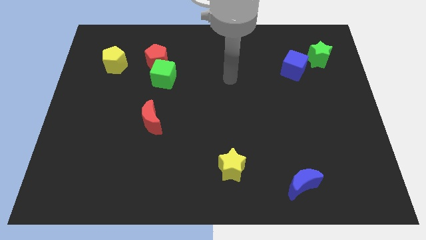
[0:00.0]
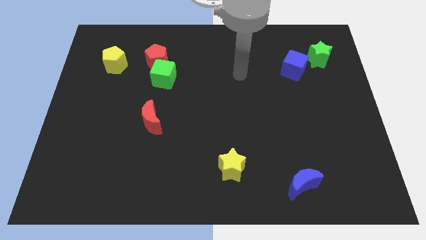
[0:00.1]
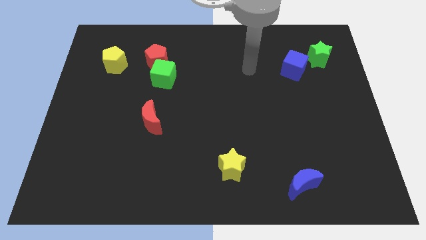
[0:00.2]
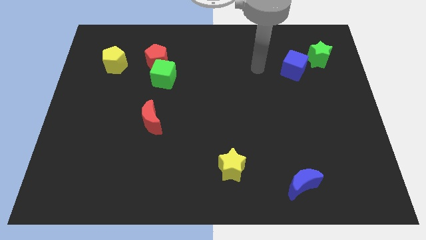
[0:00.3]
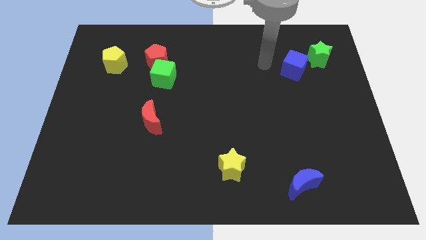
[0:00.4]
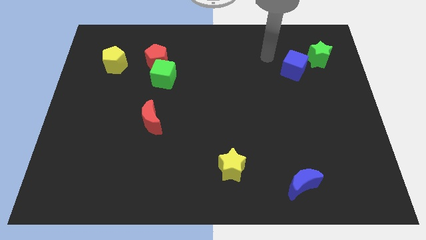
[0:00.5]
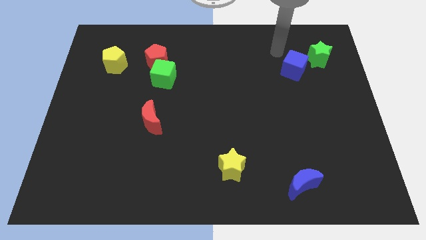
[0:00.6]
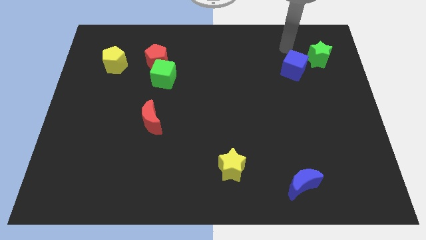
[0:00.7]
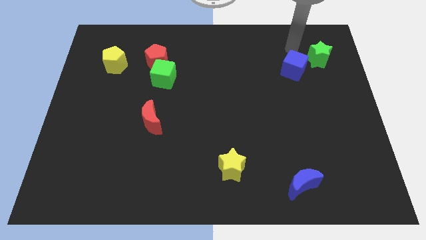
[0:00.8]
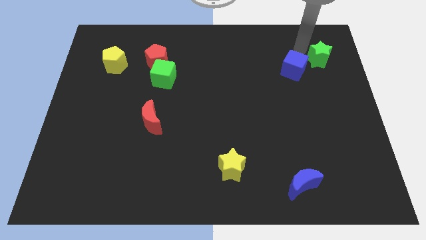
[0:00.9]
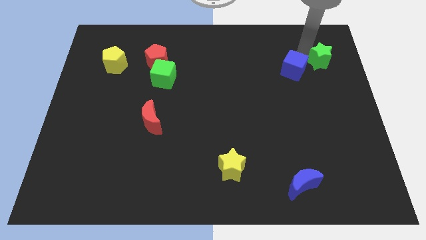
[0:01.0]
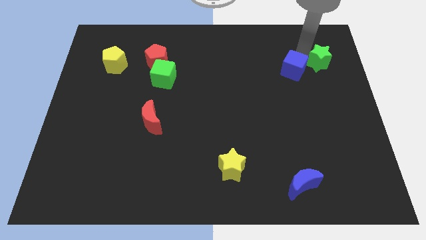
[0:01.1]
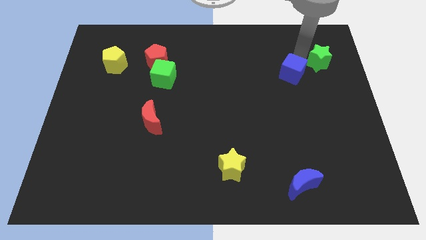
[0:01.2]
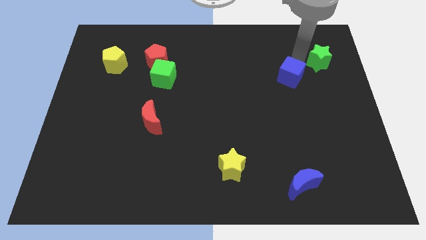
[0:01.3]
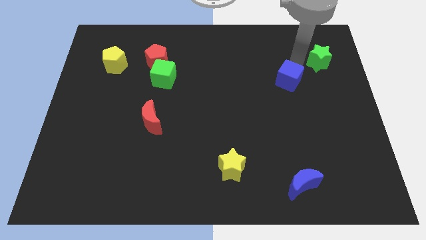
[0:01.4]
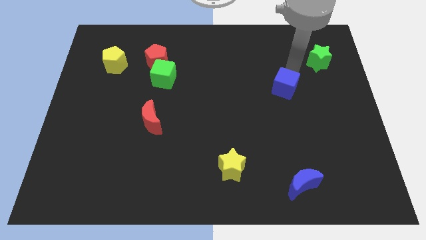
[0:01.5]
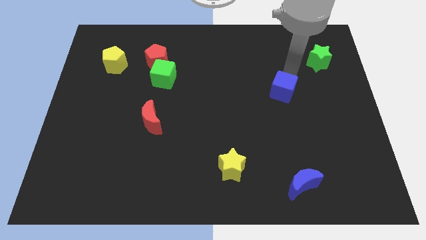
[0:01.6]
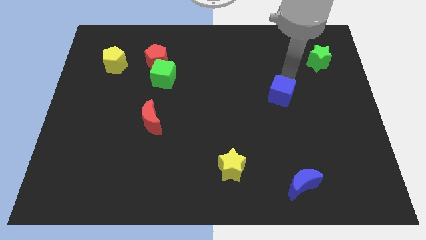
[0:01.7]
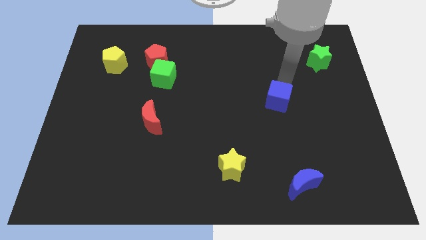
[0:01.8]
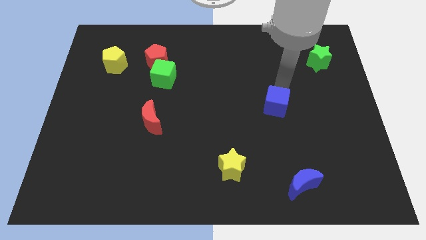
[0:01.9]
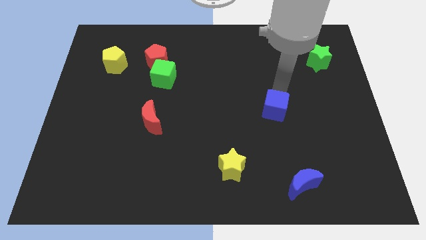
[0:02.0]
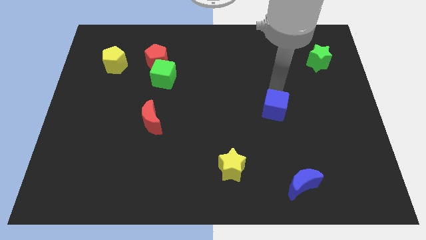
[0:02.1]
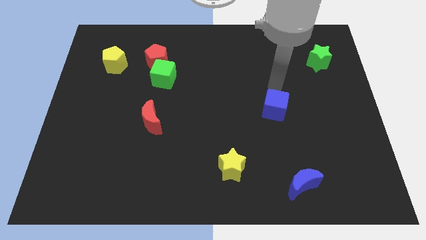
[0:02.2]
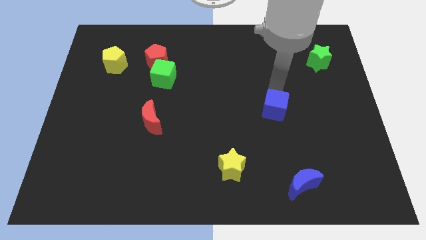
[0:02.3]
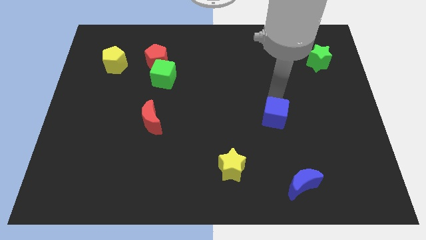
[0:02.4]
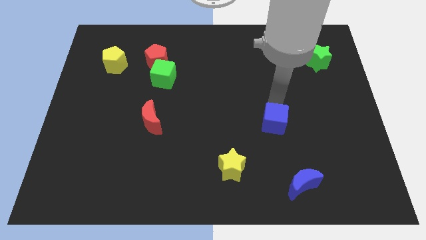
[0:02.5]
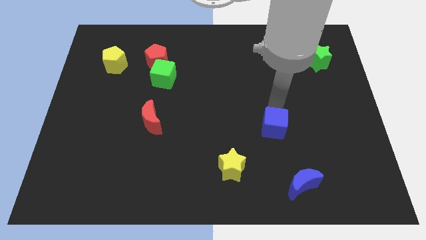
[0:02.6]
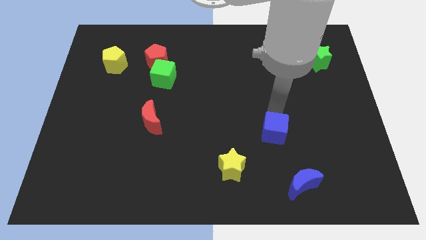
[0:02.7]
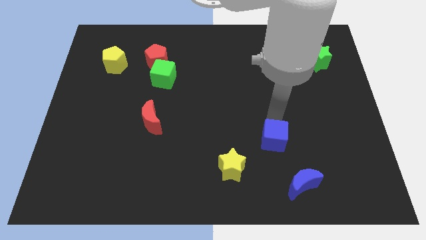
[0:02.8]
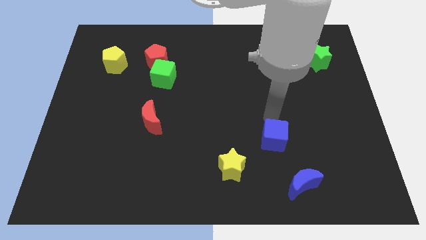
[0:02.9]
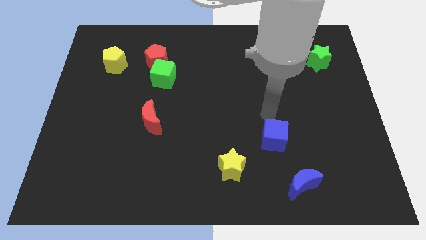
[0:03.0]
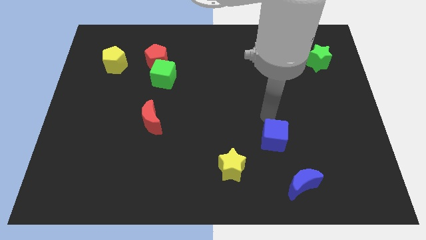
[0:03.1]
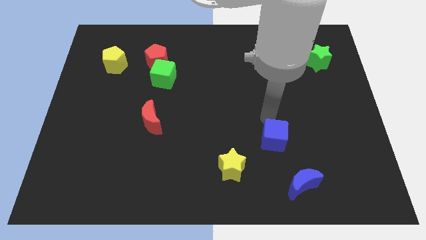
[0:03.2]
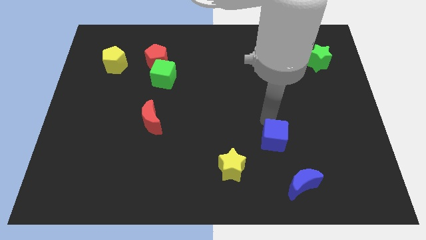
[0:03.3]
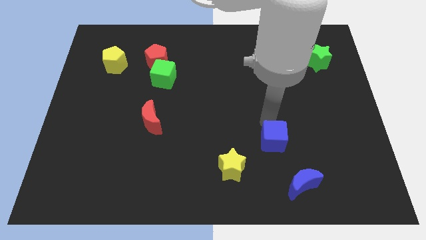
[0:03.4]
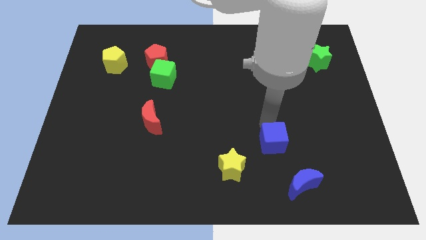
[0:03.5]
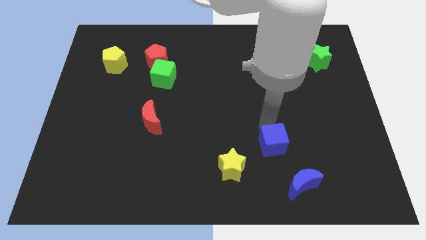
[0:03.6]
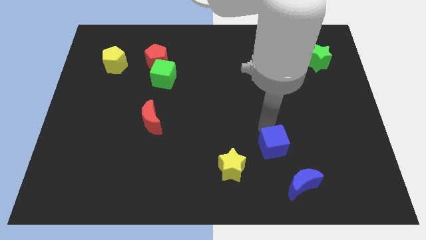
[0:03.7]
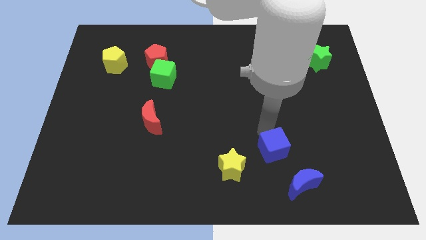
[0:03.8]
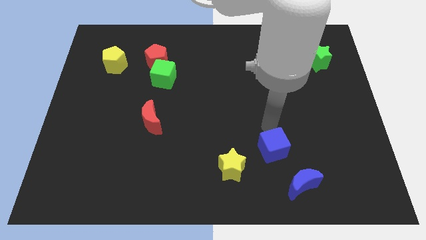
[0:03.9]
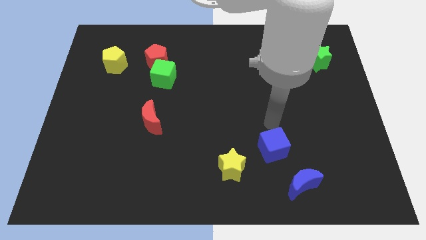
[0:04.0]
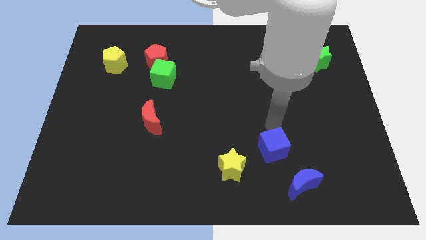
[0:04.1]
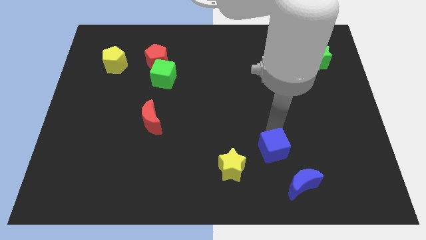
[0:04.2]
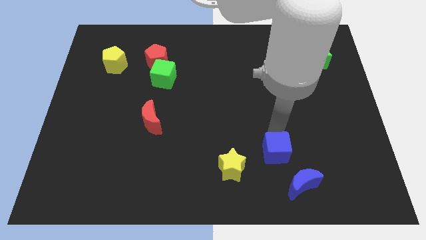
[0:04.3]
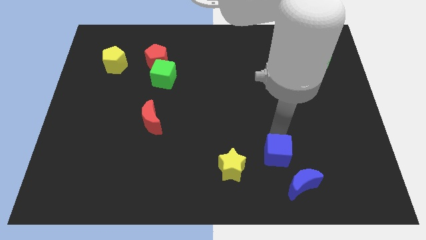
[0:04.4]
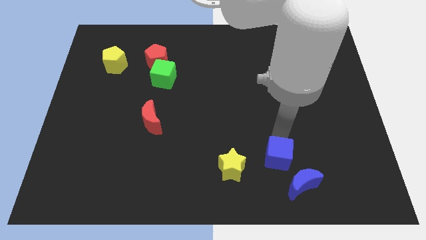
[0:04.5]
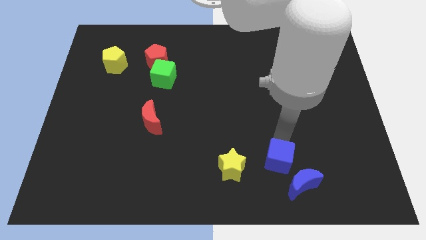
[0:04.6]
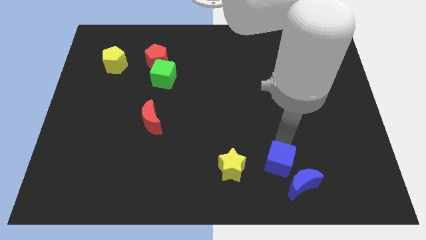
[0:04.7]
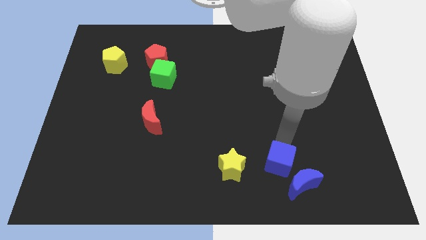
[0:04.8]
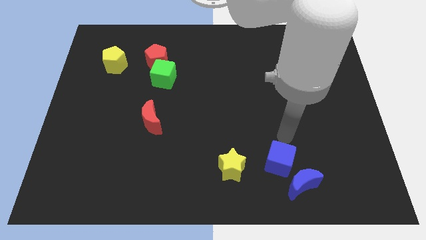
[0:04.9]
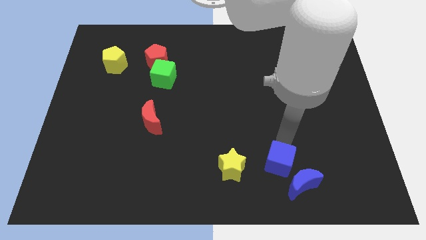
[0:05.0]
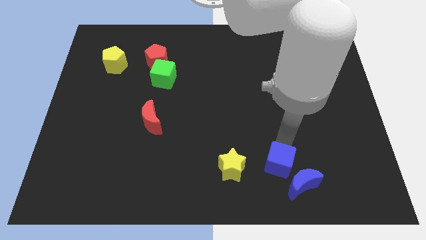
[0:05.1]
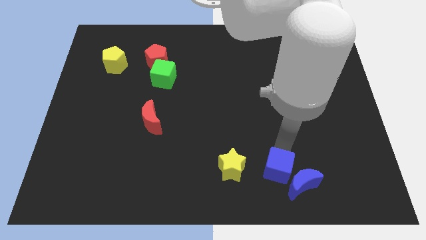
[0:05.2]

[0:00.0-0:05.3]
slide the blue cube left of the blue moon

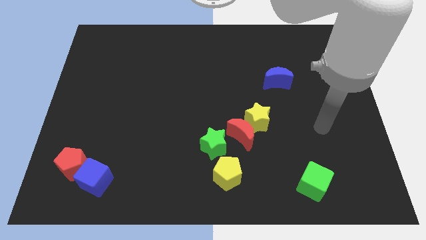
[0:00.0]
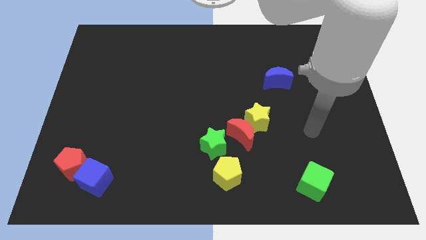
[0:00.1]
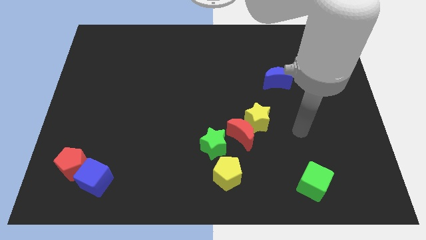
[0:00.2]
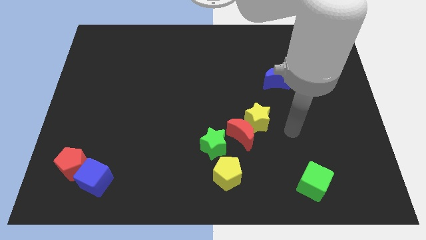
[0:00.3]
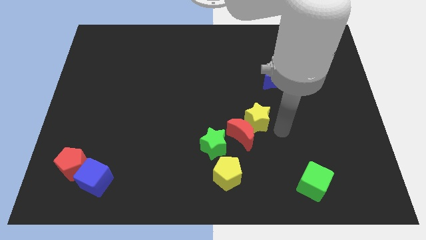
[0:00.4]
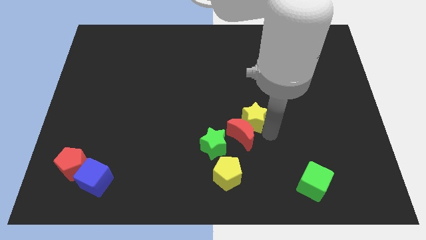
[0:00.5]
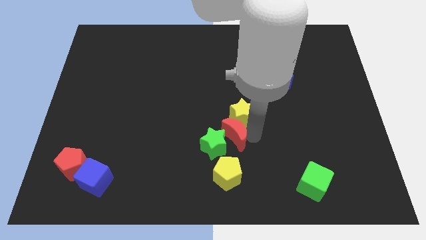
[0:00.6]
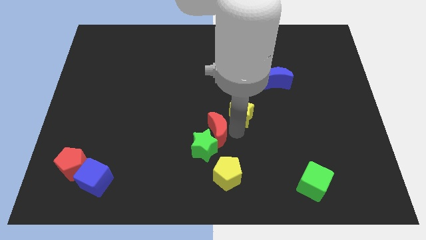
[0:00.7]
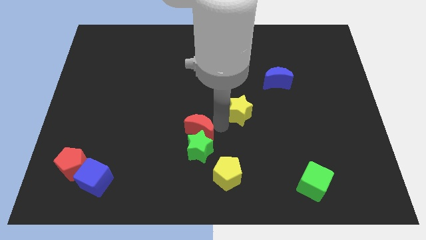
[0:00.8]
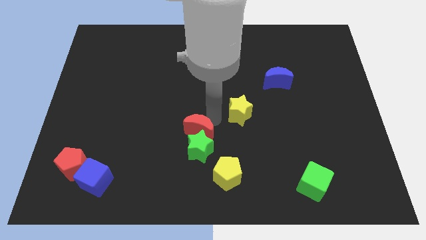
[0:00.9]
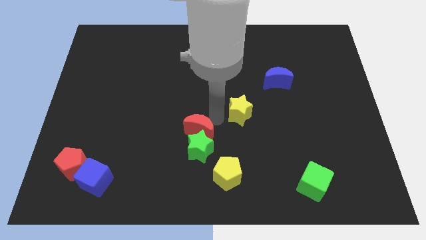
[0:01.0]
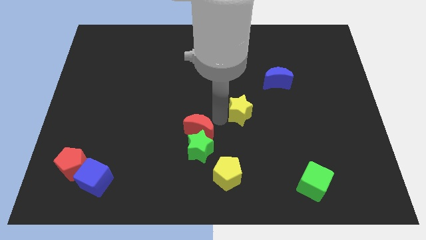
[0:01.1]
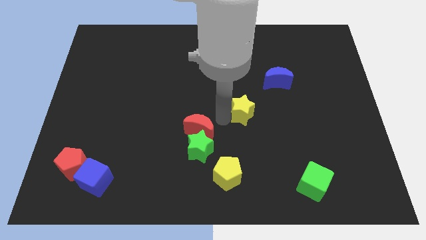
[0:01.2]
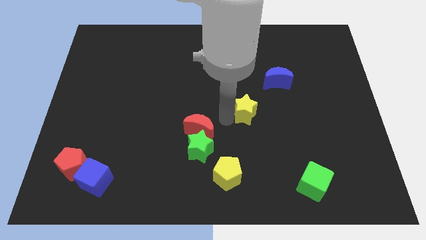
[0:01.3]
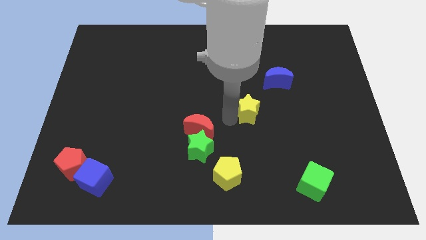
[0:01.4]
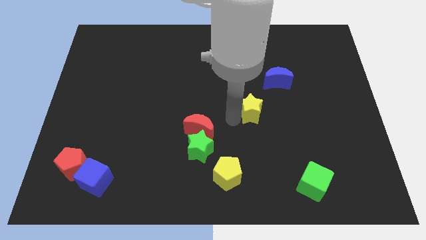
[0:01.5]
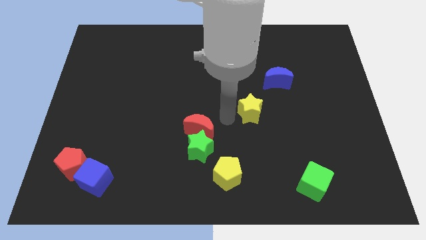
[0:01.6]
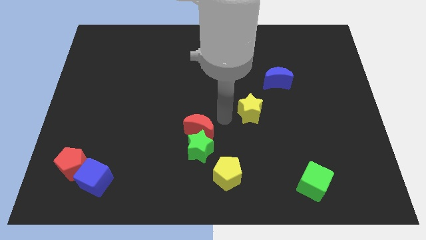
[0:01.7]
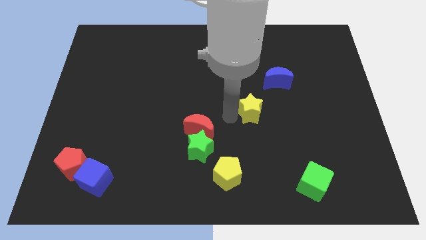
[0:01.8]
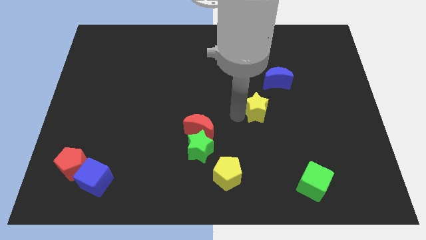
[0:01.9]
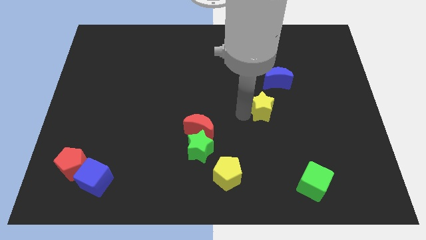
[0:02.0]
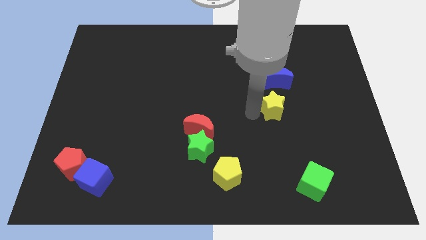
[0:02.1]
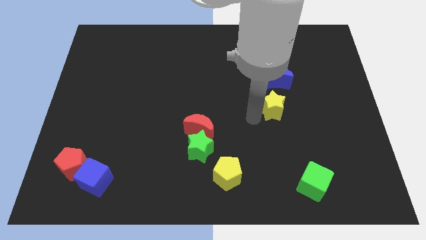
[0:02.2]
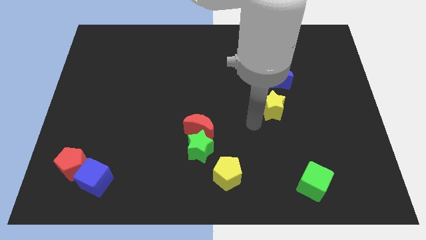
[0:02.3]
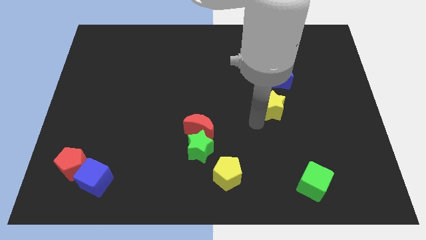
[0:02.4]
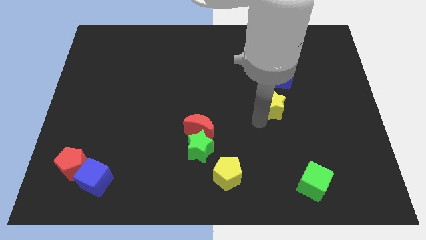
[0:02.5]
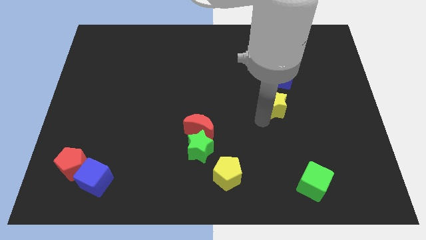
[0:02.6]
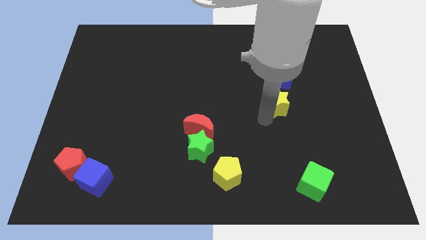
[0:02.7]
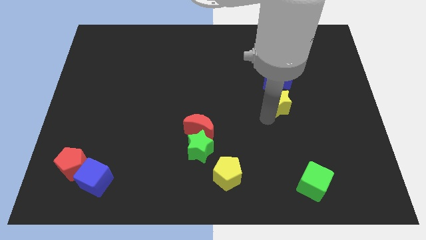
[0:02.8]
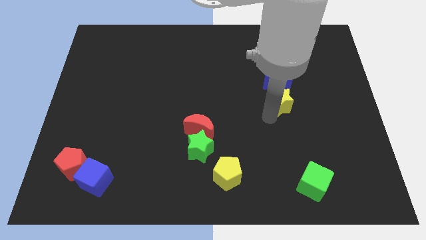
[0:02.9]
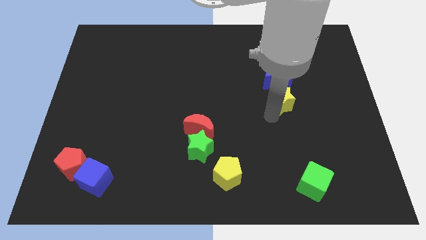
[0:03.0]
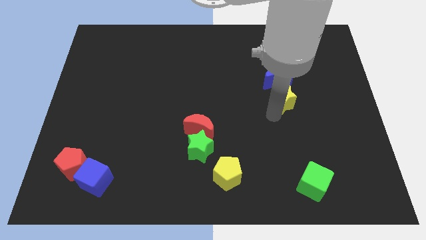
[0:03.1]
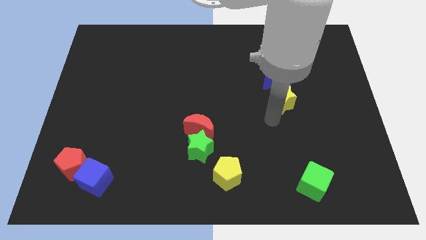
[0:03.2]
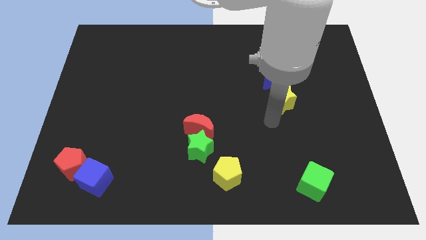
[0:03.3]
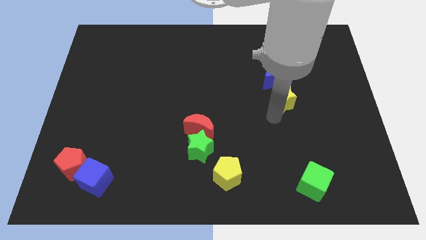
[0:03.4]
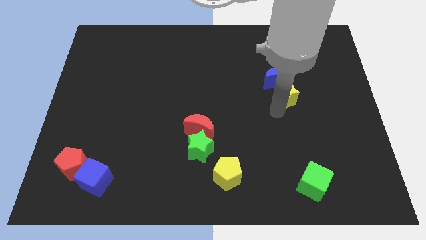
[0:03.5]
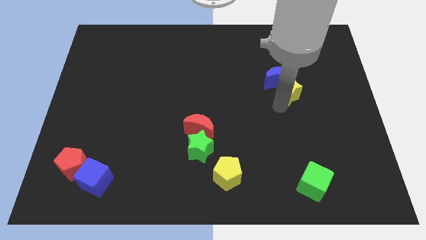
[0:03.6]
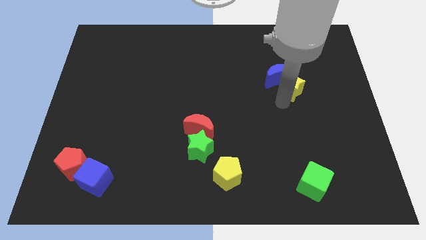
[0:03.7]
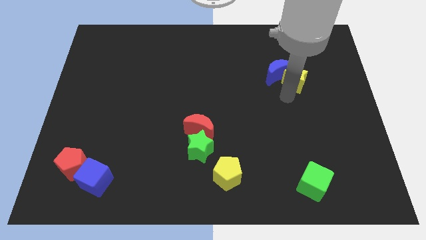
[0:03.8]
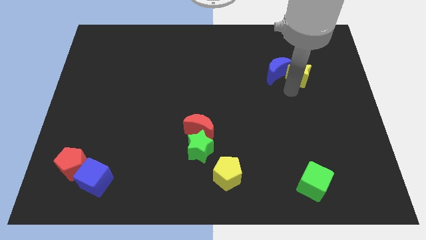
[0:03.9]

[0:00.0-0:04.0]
move the yellow star to the top right of the blue moon
